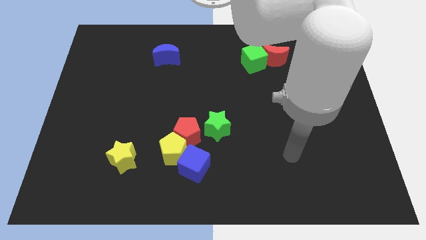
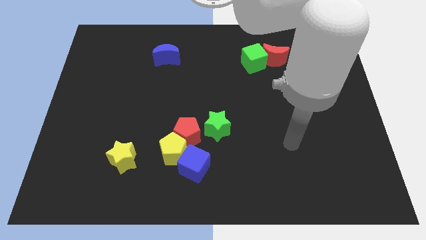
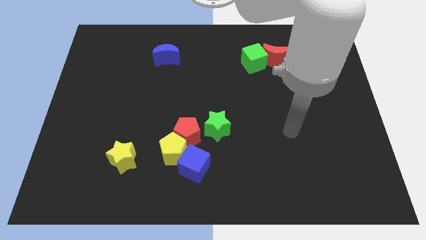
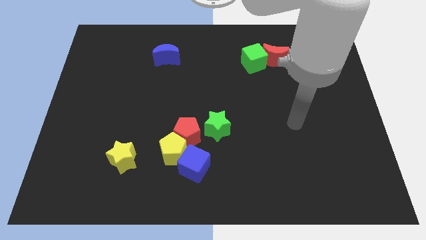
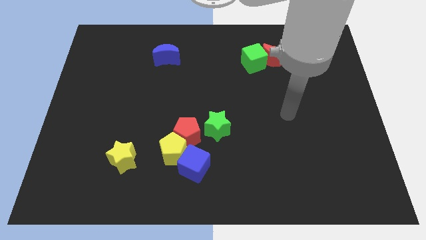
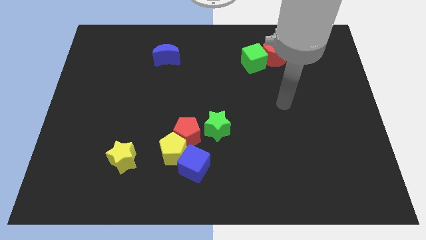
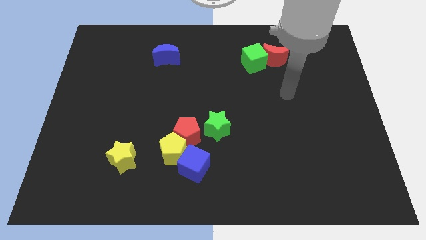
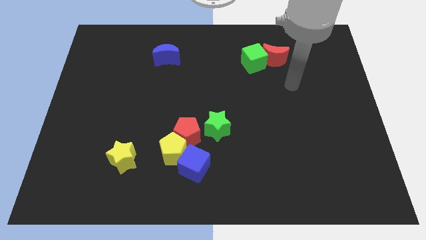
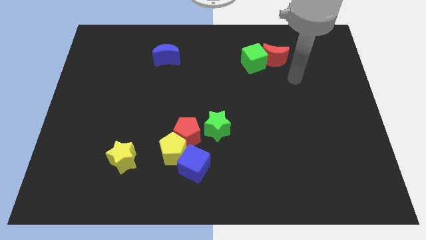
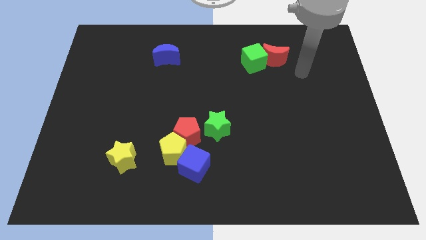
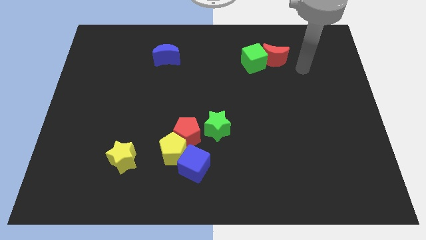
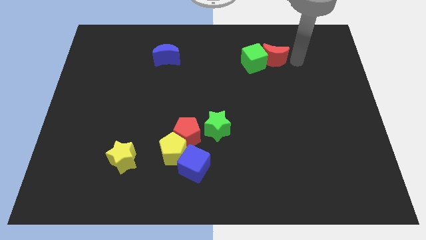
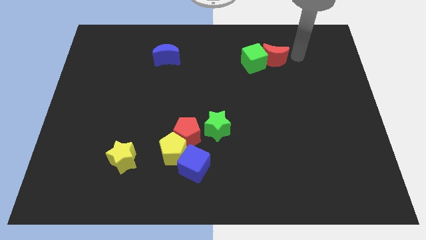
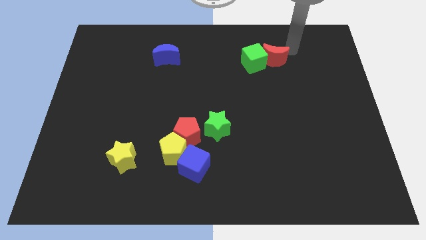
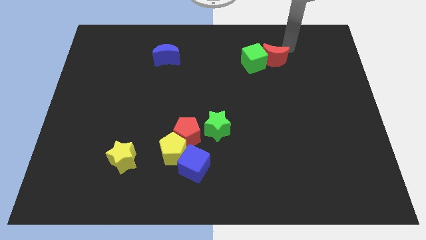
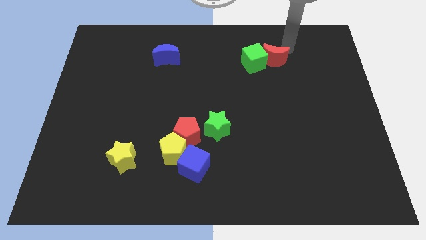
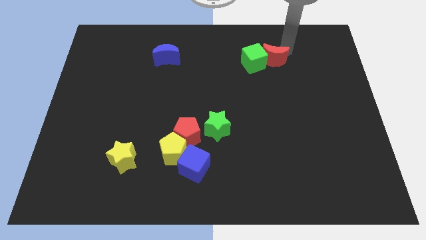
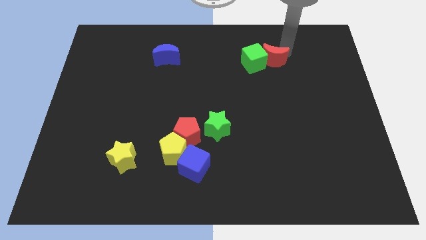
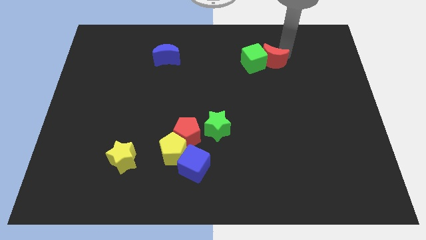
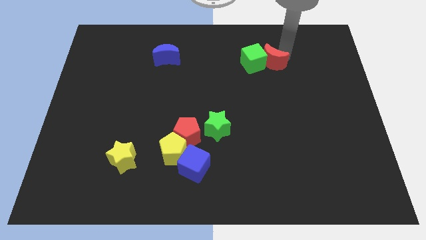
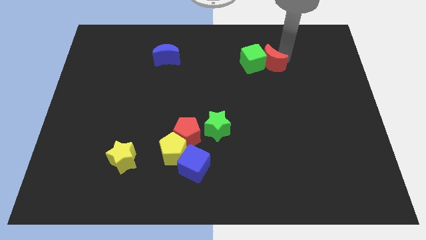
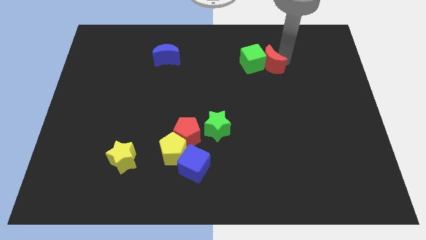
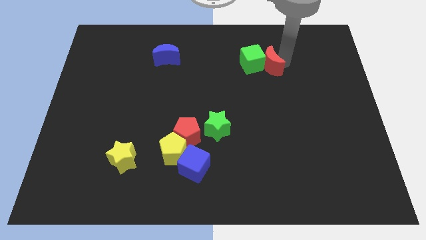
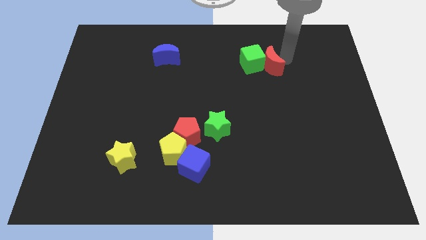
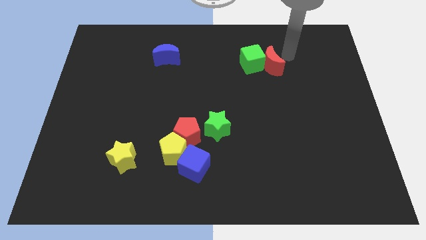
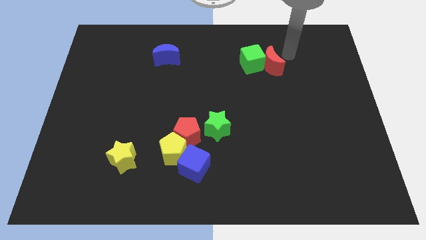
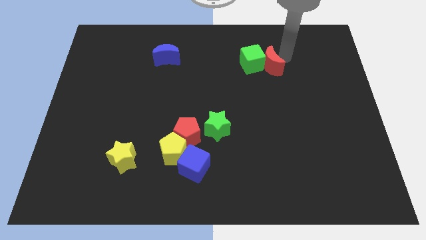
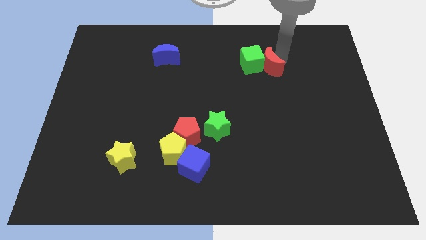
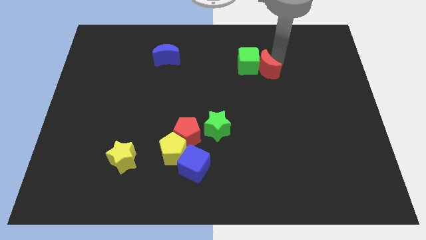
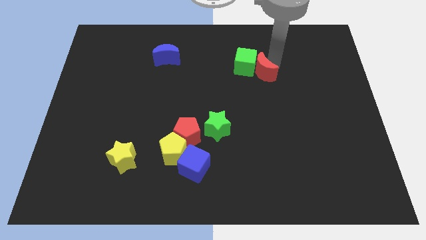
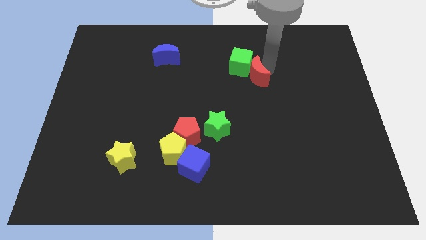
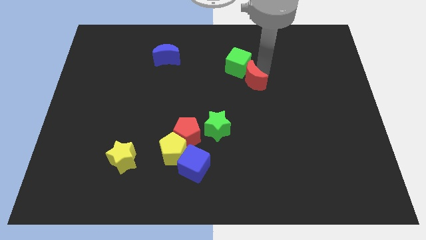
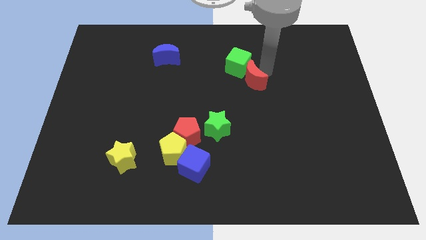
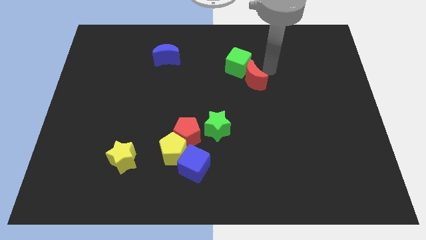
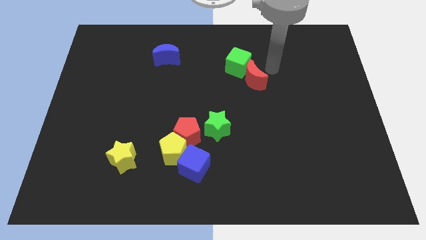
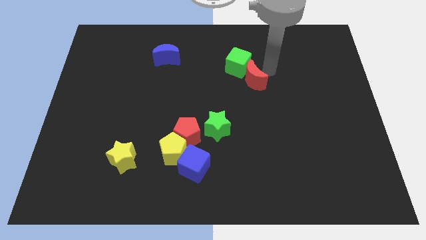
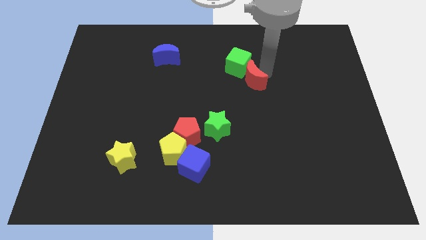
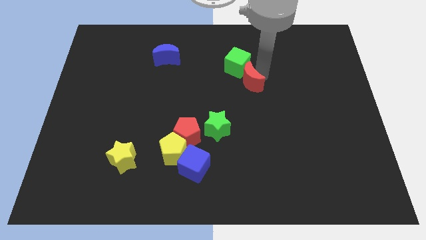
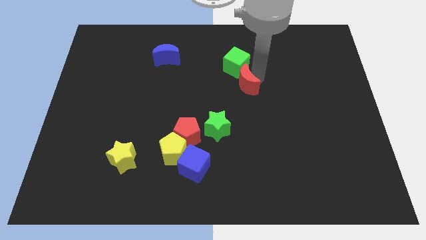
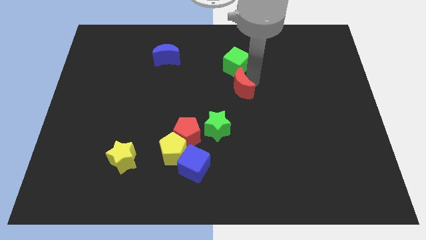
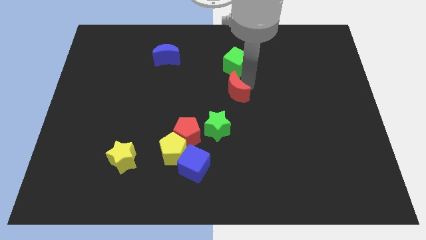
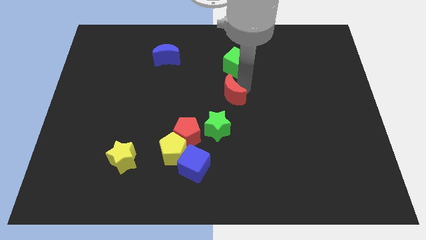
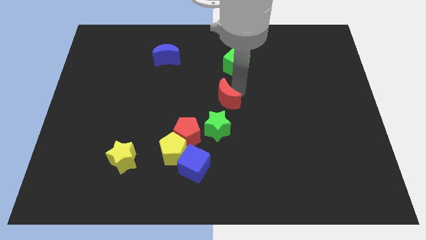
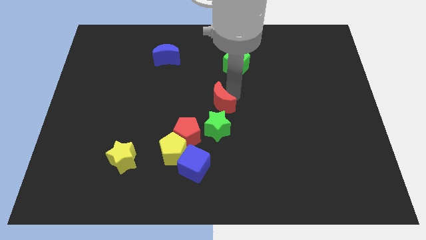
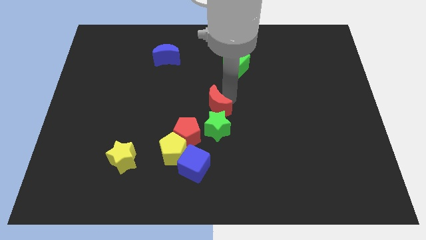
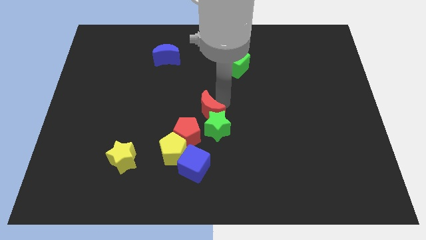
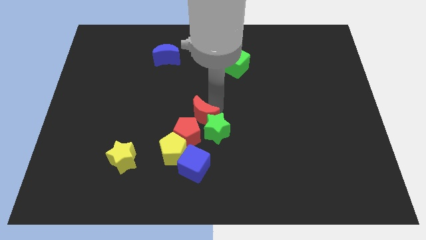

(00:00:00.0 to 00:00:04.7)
push the red moon towards the red pentagon

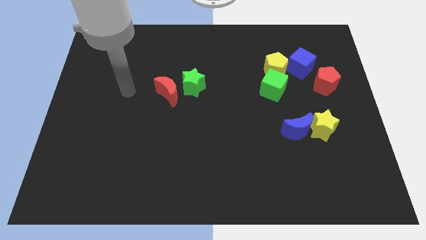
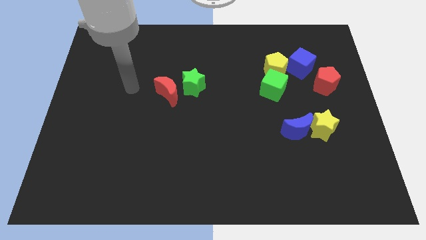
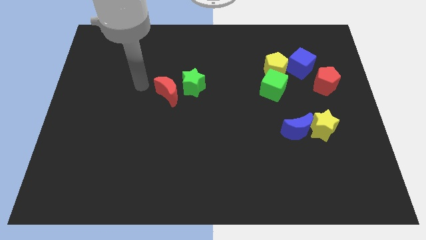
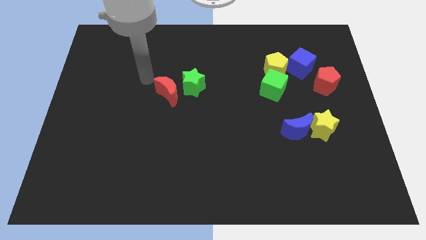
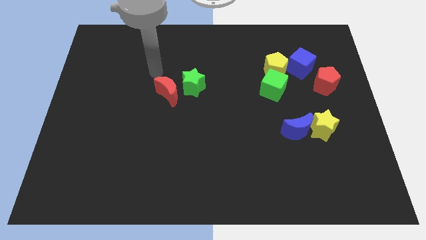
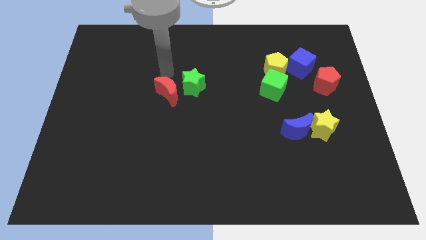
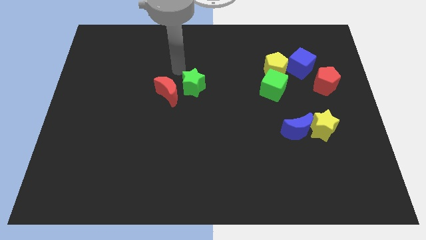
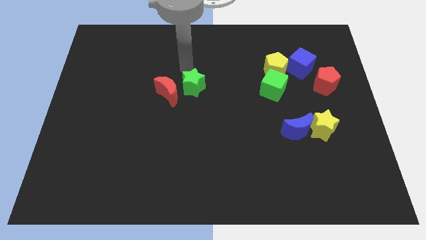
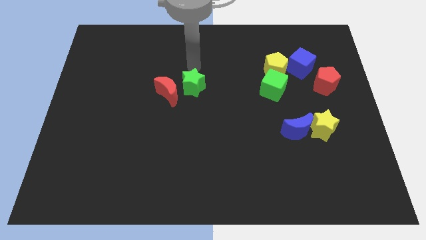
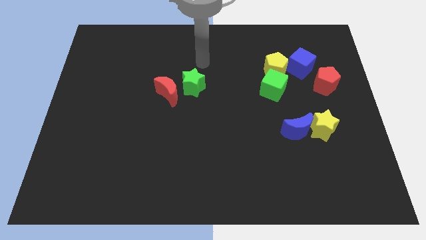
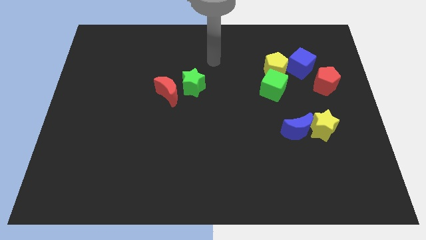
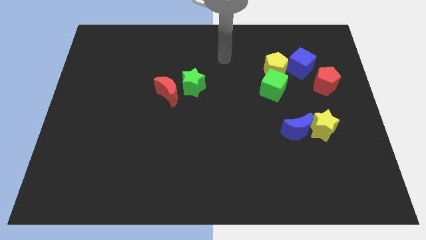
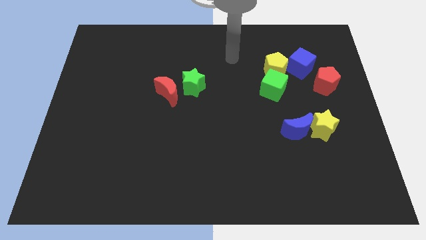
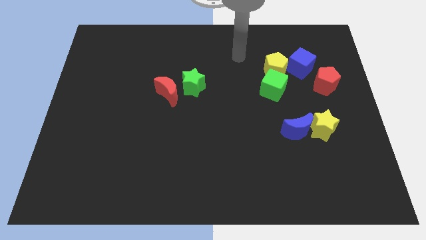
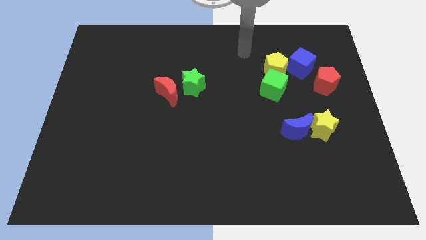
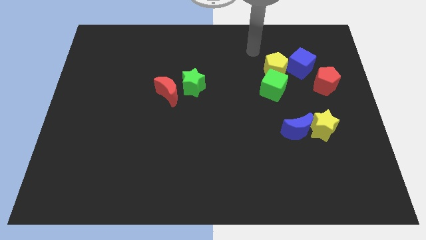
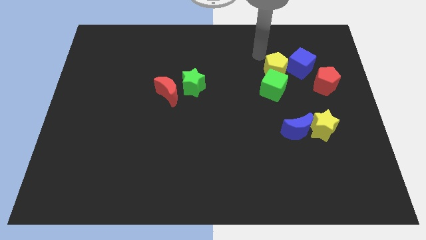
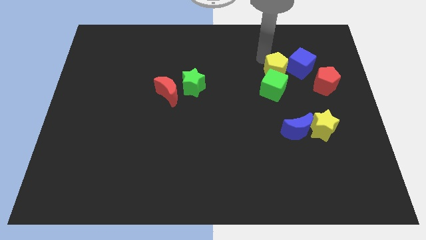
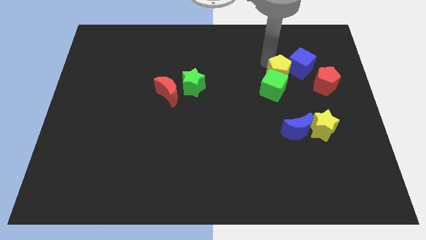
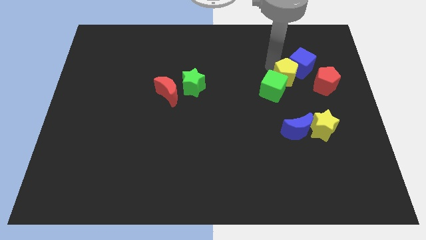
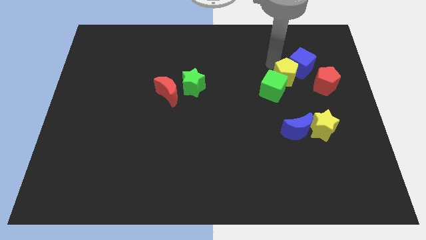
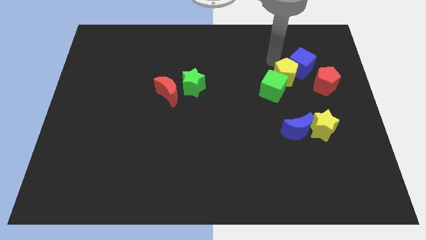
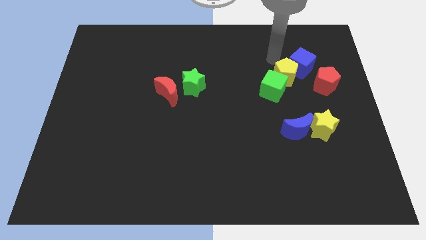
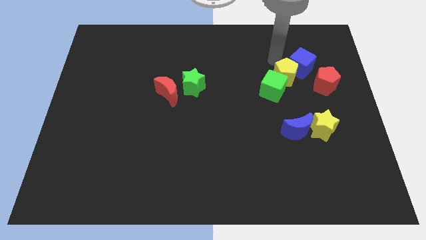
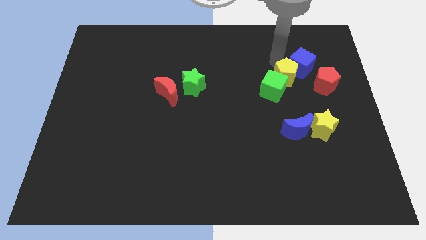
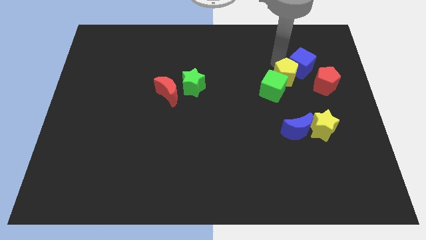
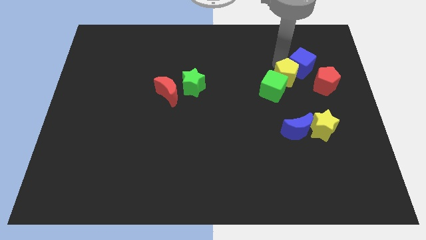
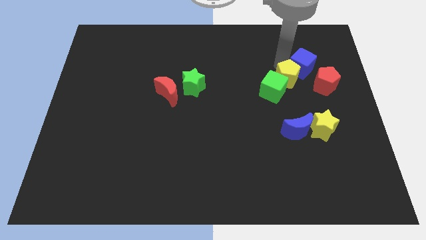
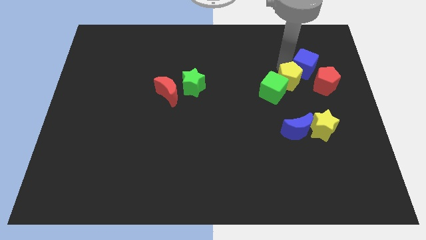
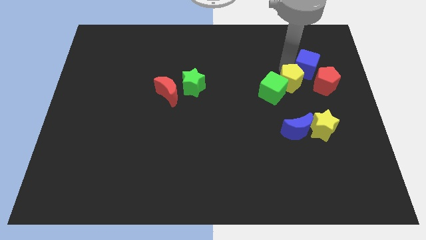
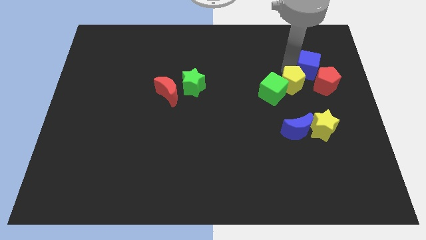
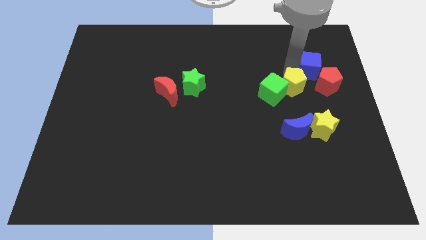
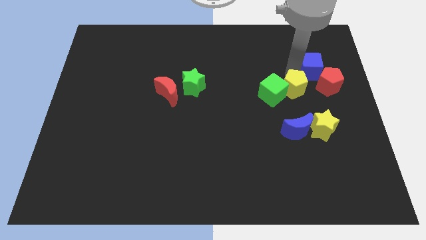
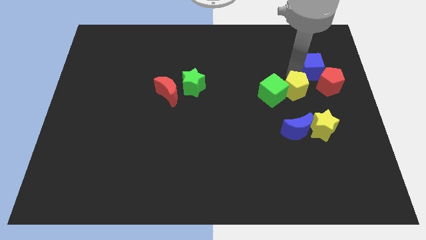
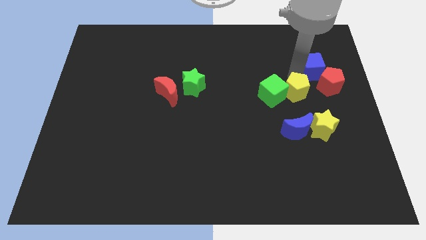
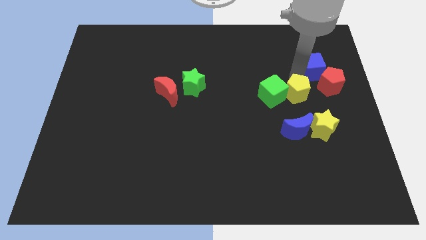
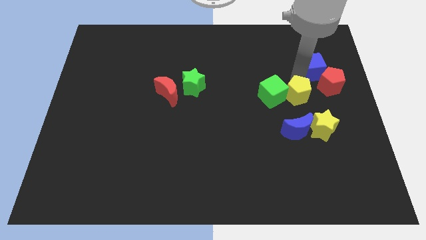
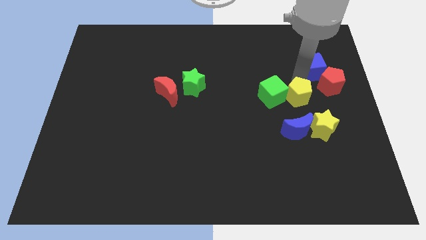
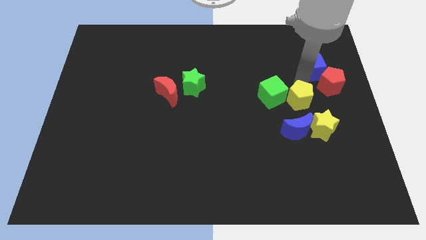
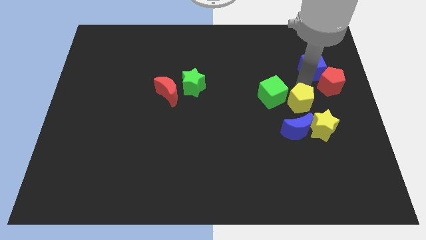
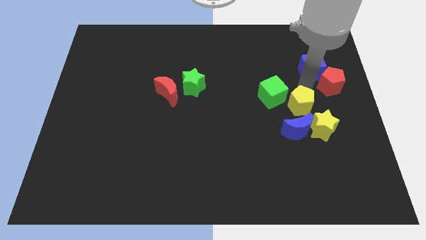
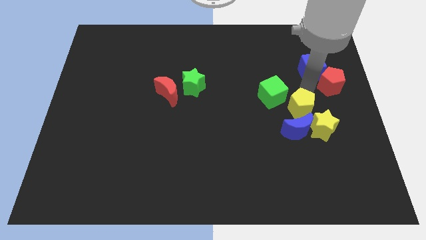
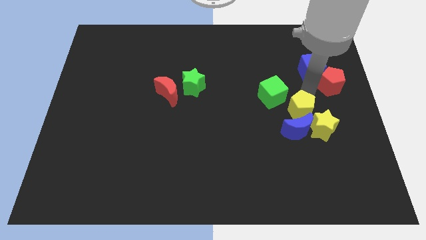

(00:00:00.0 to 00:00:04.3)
move the yellow pentagon next to the blue moon
